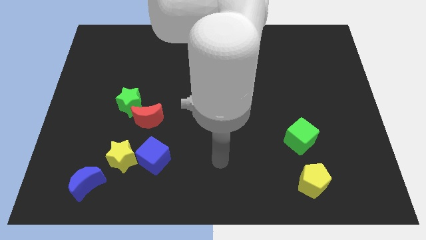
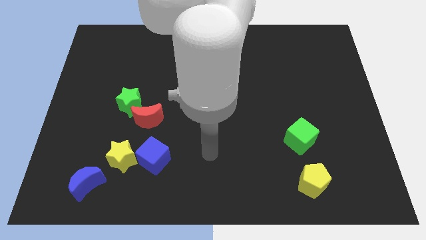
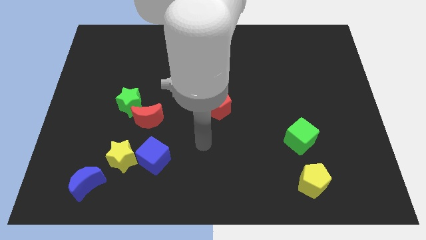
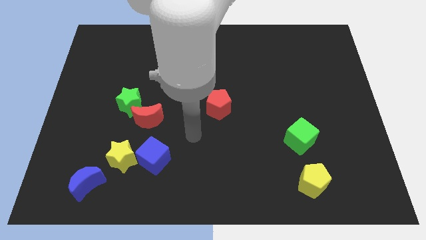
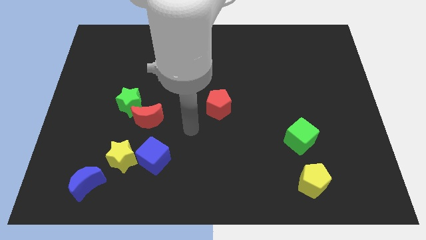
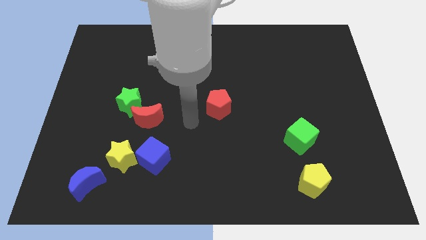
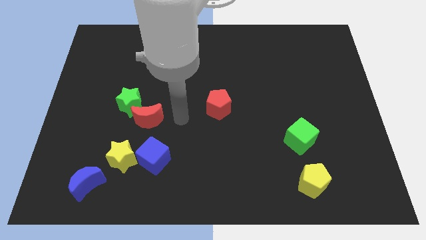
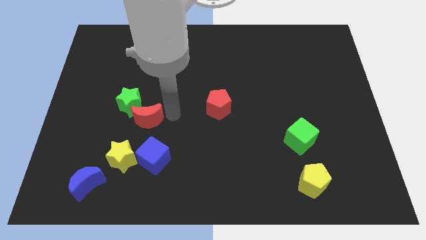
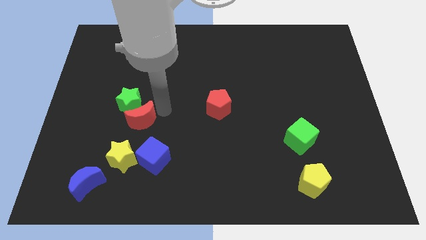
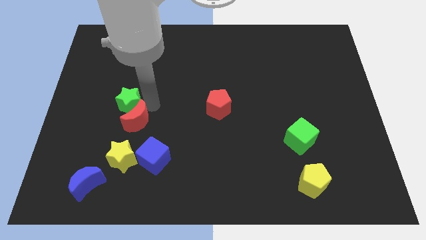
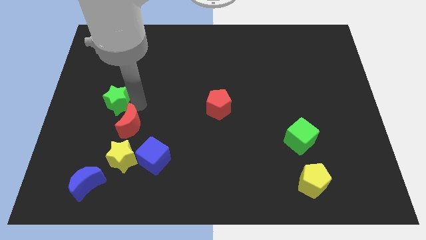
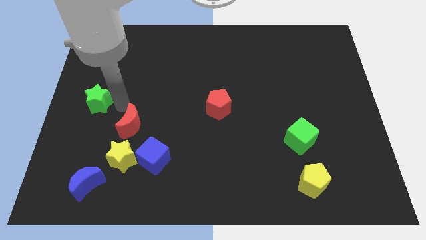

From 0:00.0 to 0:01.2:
separate the red moon from the green star

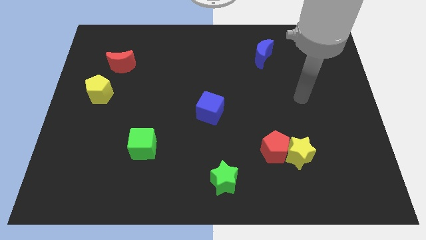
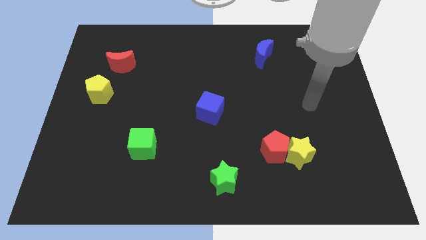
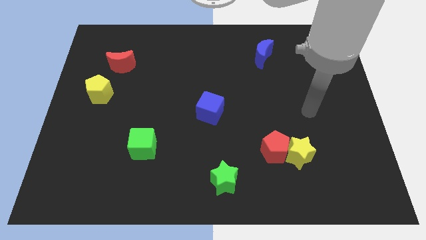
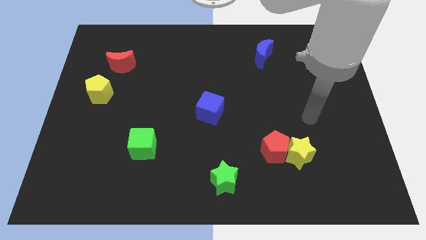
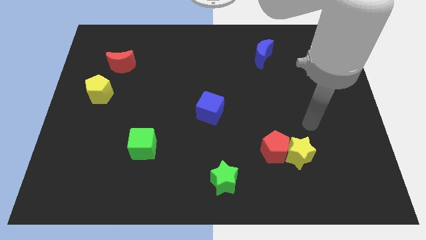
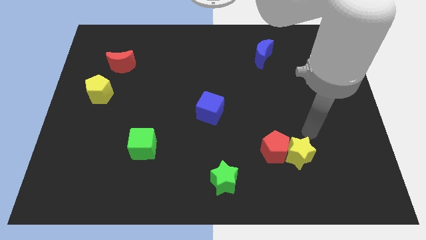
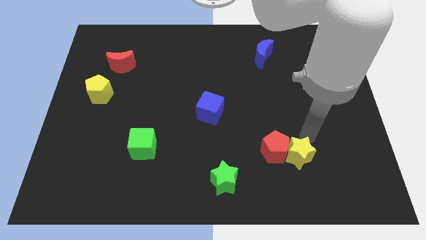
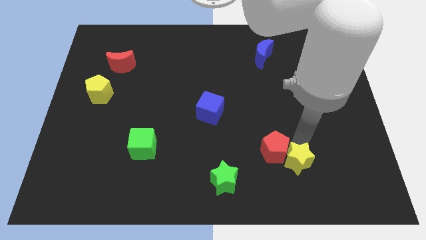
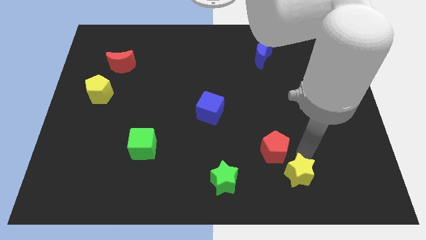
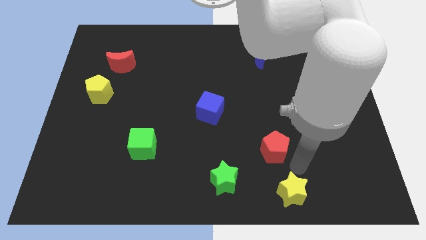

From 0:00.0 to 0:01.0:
move the red pentagon away from the yellow star

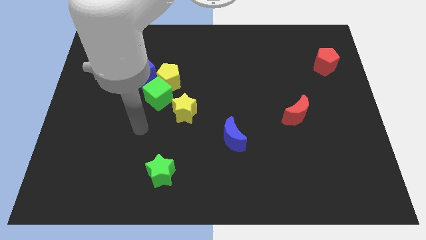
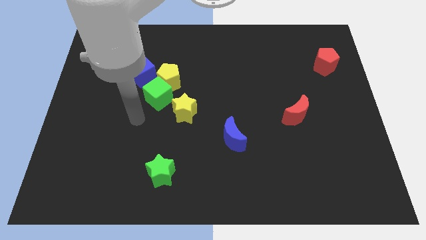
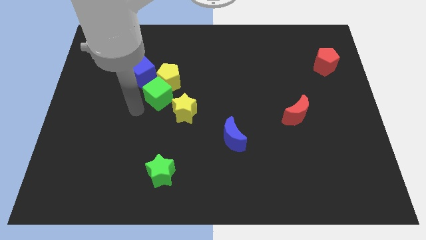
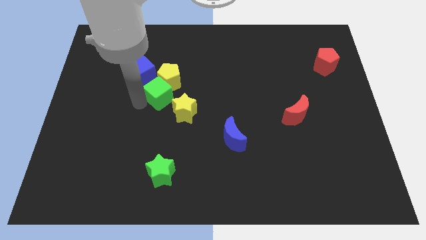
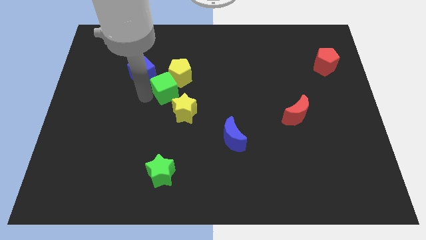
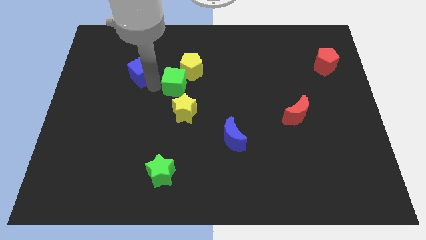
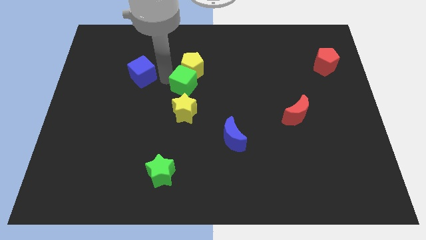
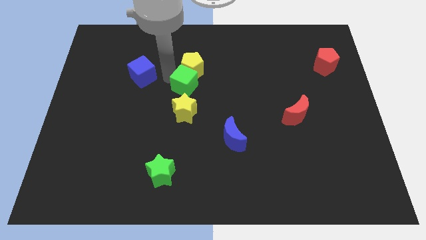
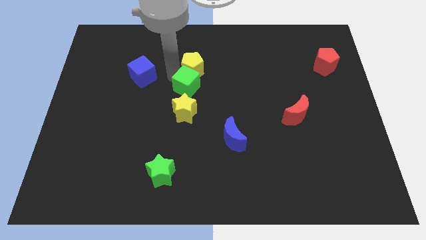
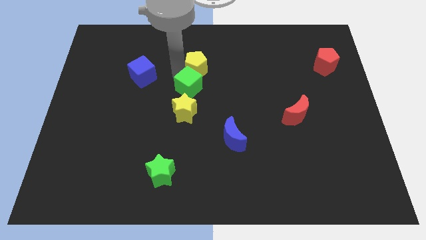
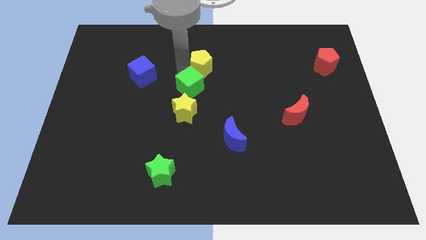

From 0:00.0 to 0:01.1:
move the yellow pentagon away from the green cube and blue cube

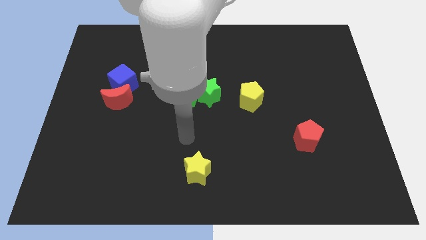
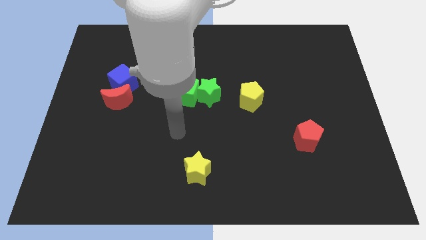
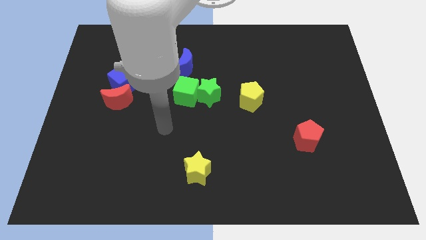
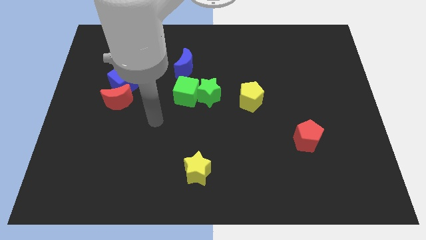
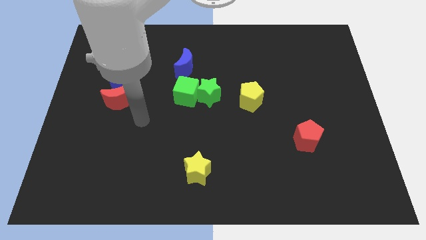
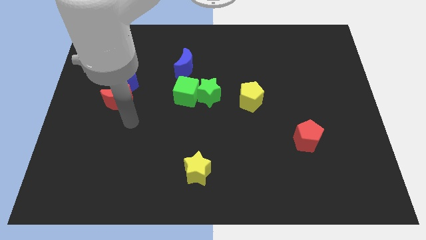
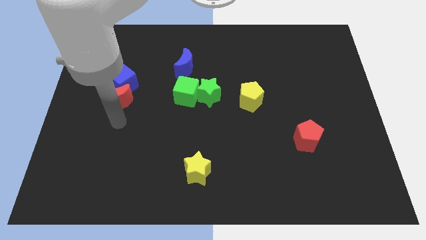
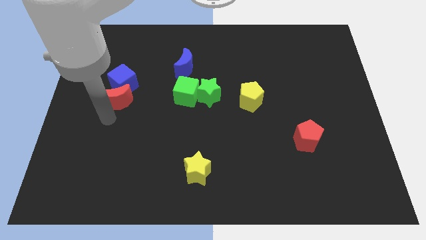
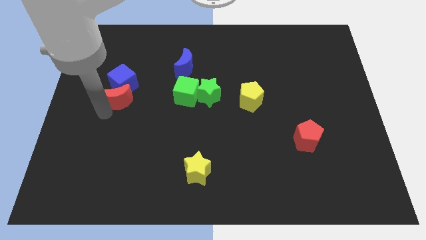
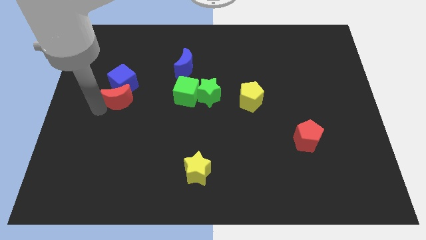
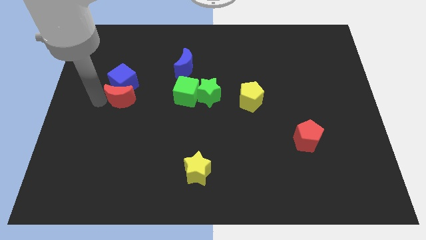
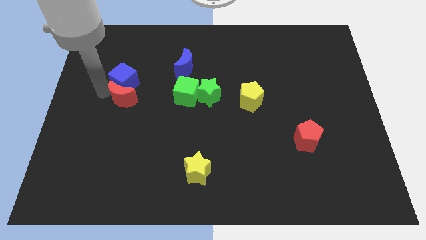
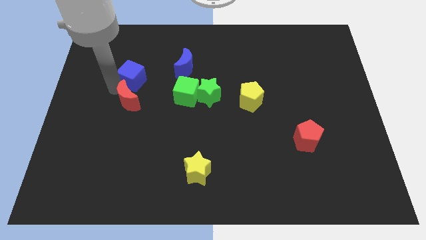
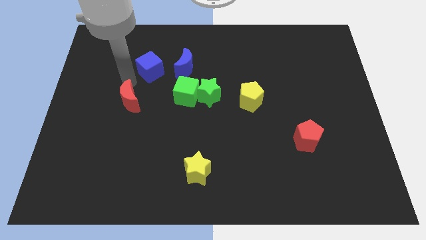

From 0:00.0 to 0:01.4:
move the red moon away from the blue cube

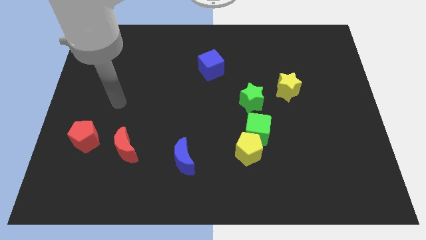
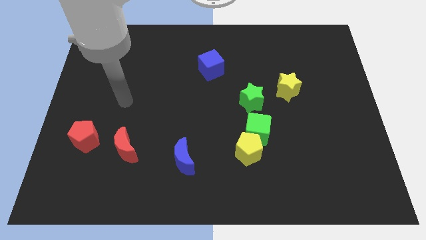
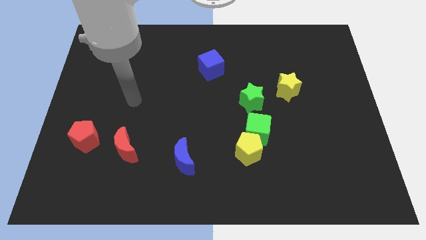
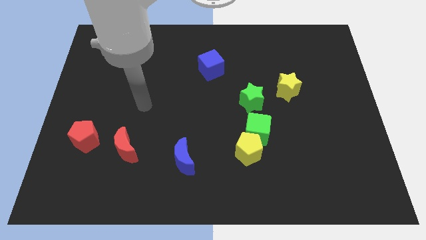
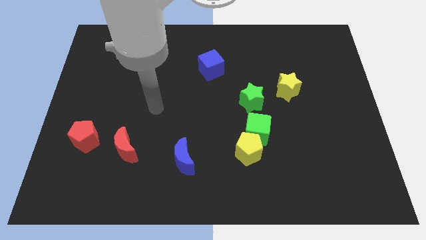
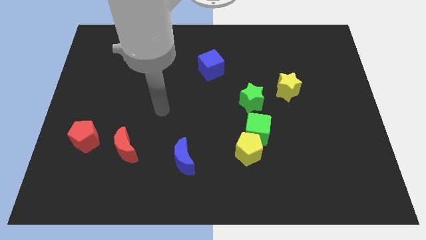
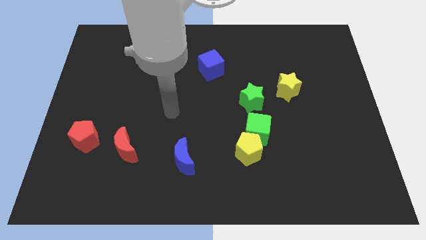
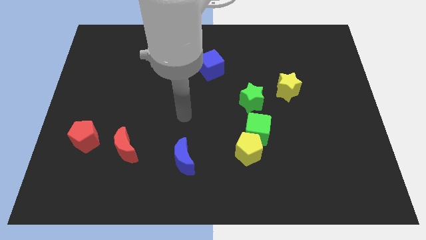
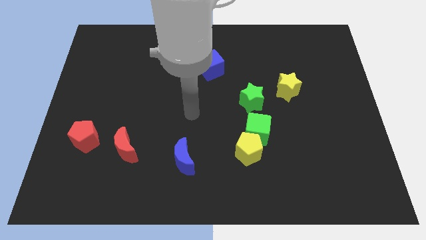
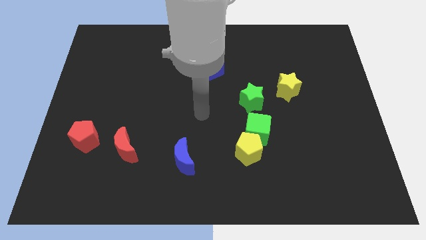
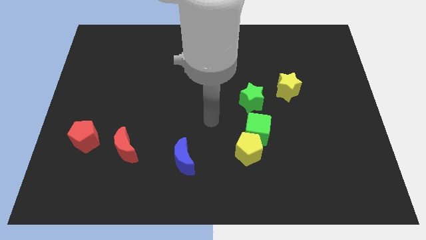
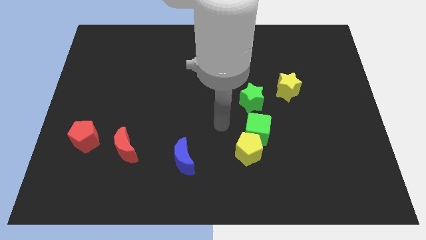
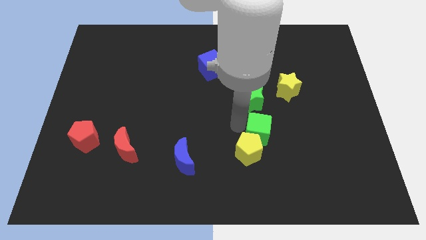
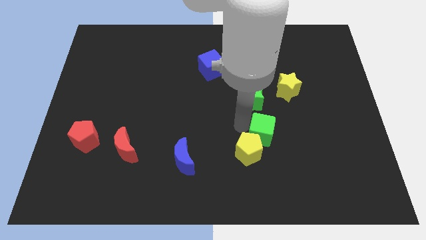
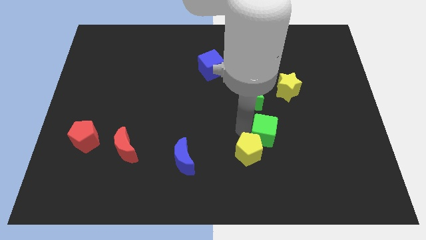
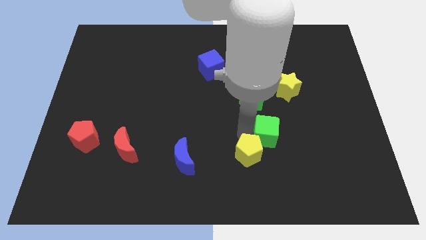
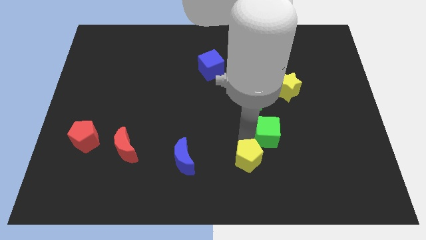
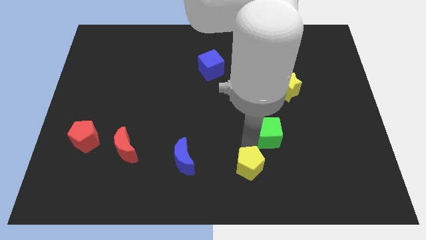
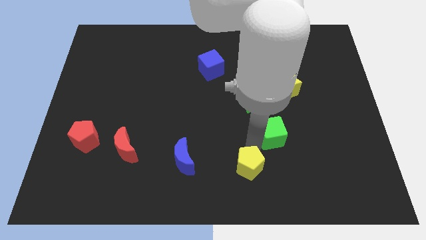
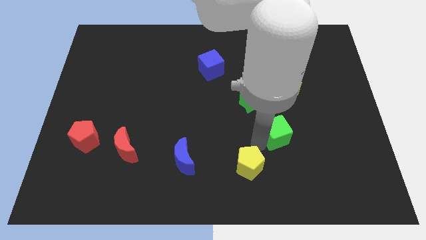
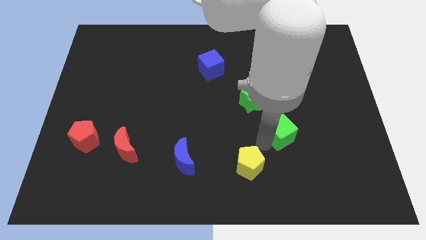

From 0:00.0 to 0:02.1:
move the yellow pentagon away from the green cube

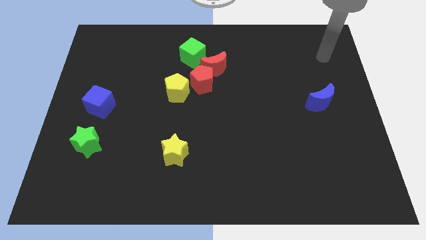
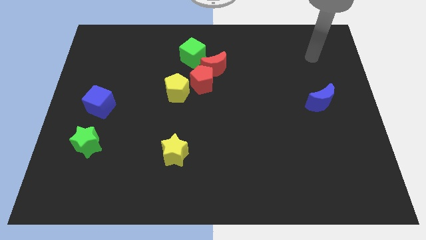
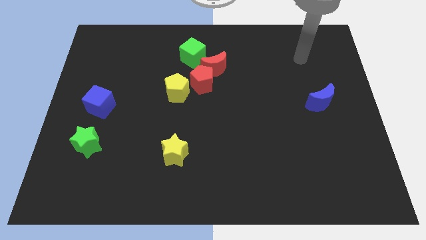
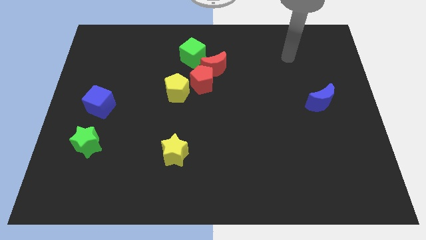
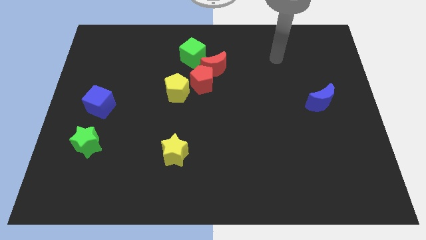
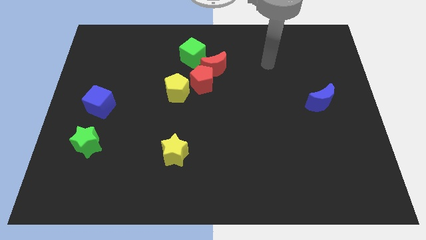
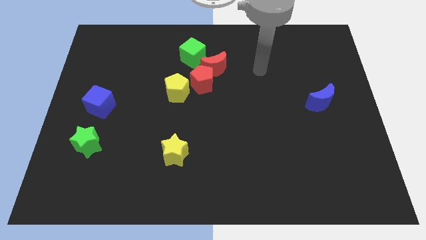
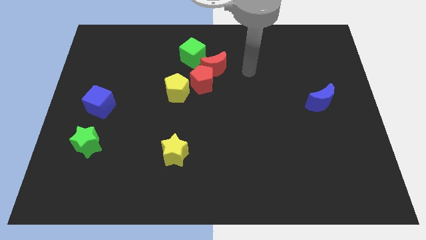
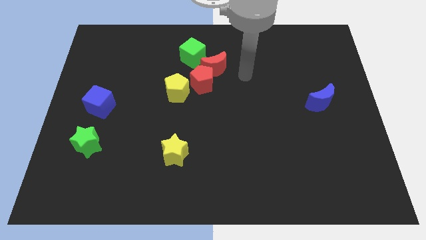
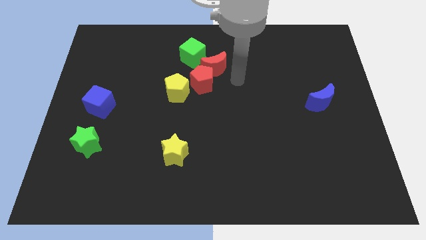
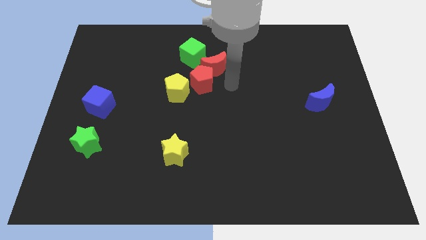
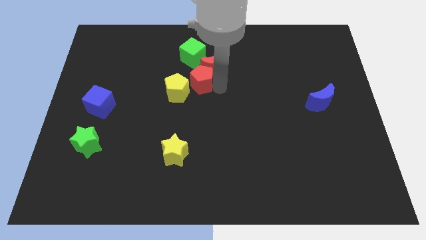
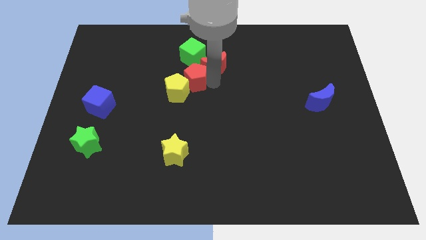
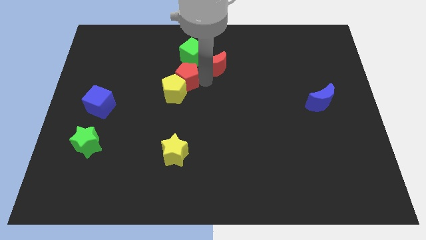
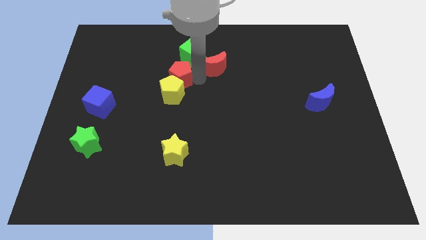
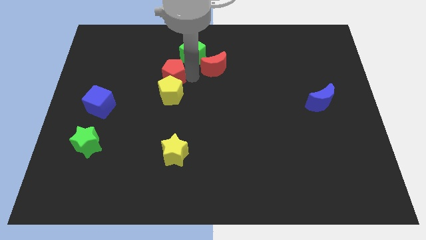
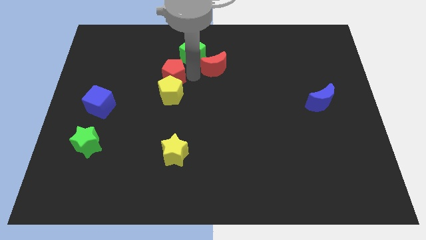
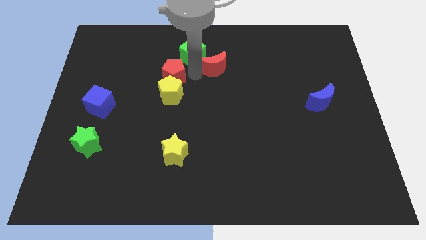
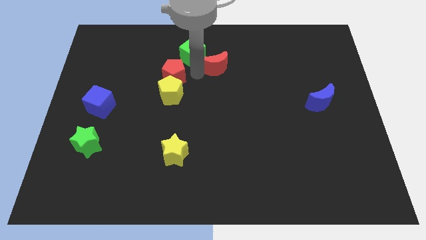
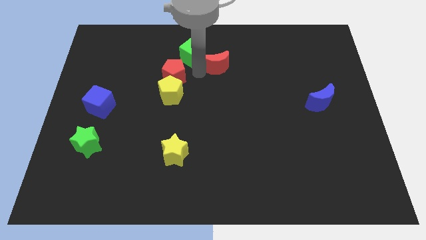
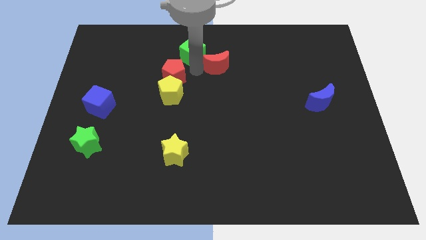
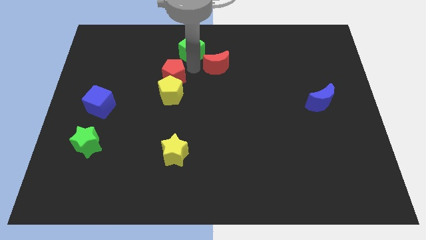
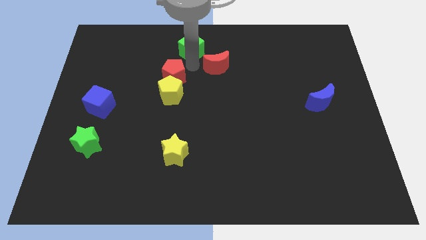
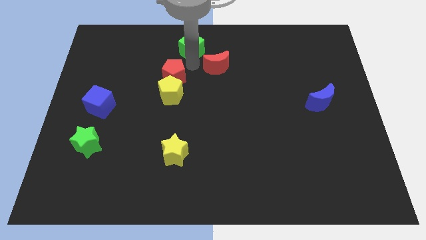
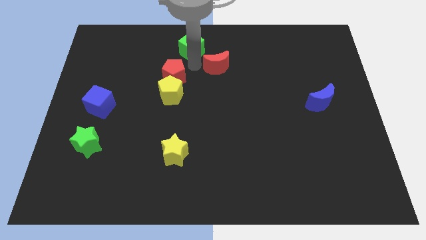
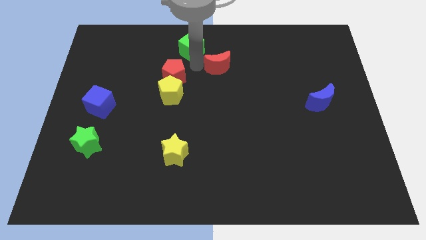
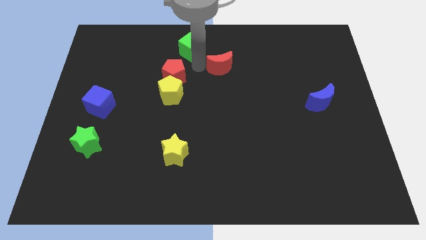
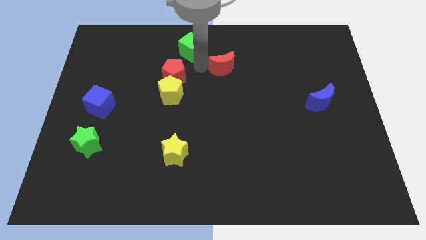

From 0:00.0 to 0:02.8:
pull the red moon apart from the red pentagon and green cube
